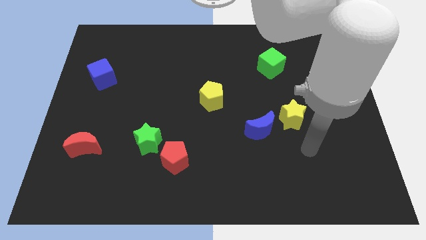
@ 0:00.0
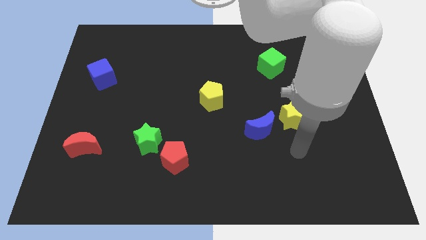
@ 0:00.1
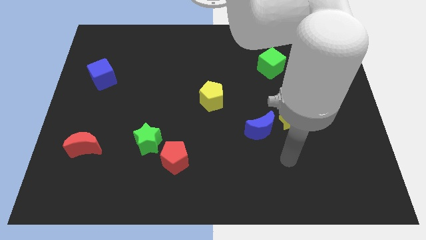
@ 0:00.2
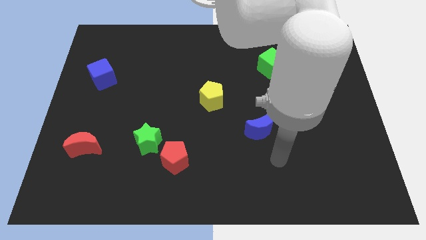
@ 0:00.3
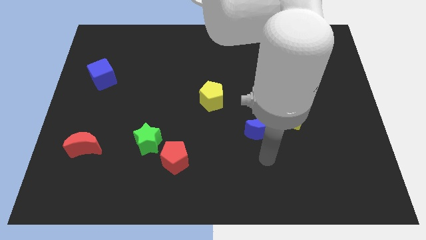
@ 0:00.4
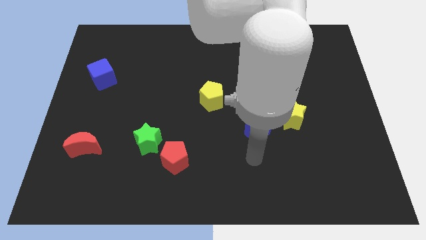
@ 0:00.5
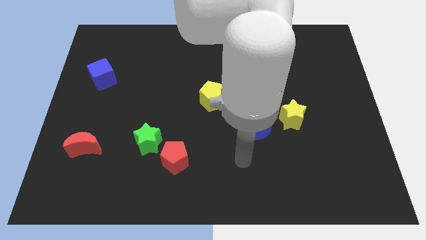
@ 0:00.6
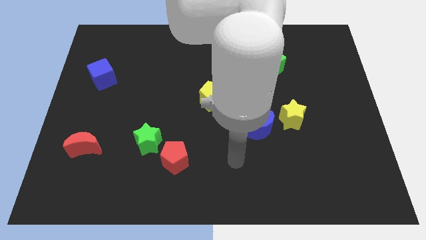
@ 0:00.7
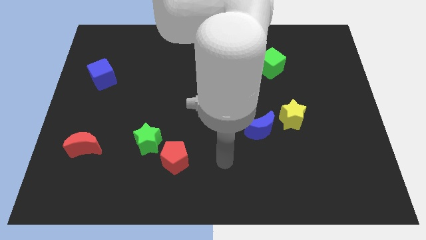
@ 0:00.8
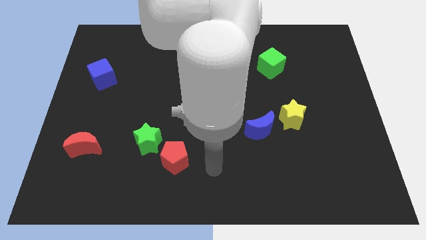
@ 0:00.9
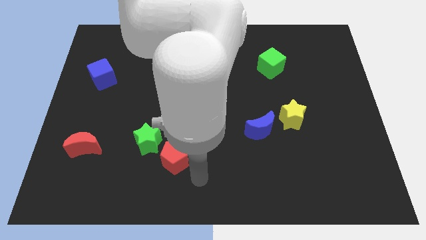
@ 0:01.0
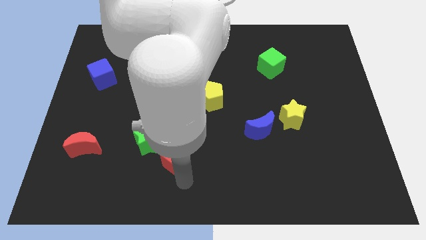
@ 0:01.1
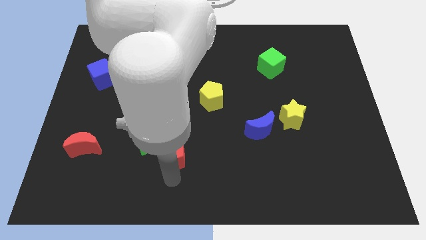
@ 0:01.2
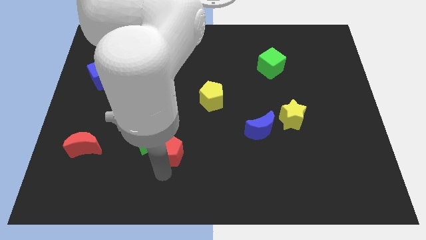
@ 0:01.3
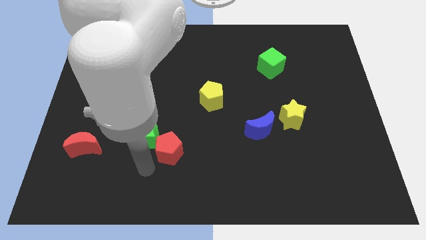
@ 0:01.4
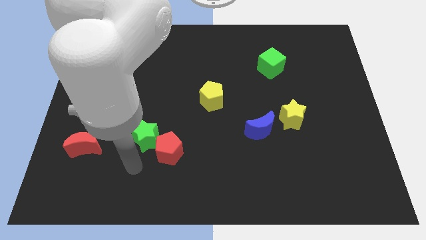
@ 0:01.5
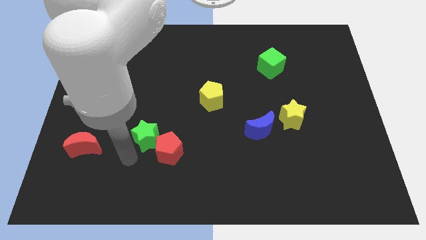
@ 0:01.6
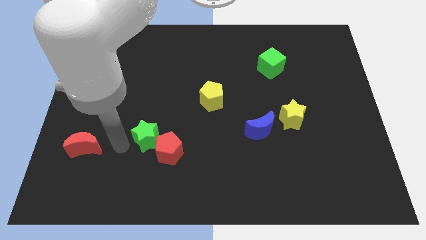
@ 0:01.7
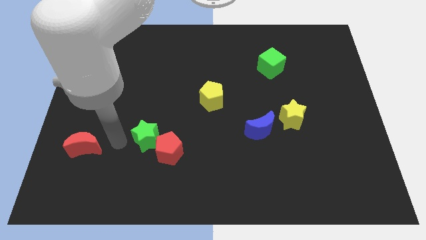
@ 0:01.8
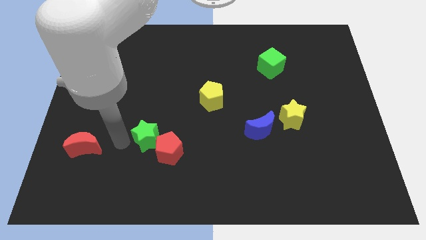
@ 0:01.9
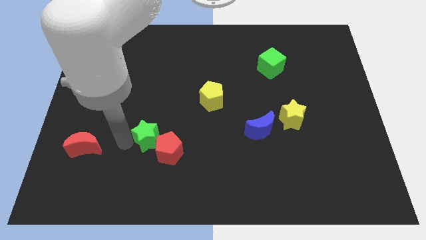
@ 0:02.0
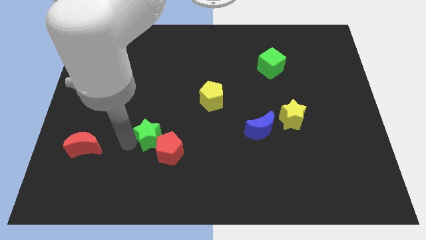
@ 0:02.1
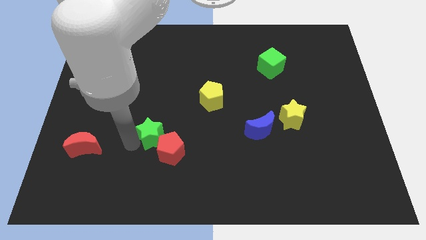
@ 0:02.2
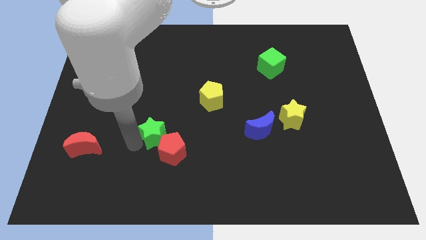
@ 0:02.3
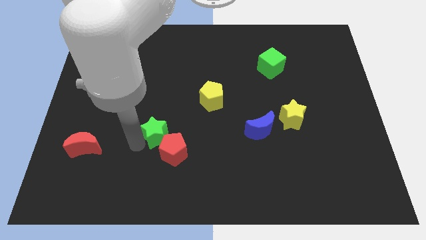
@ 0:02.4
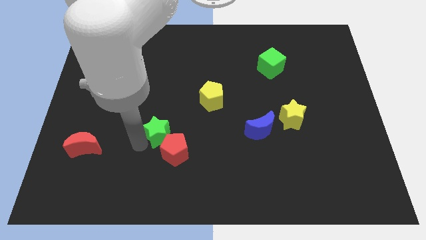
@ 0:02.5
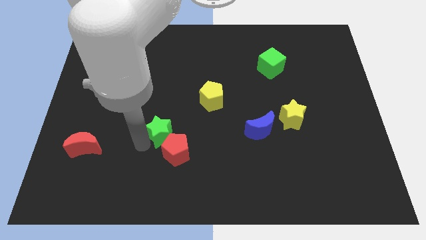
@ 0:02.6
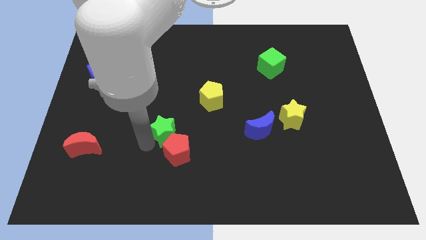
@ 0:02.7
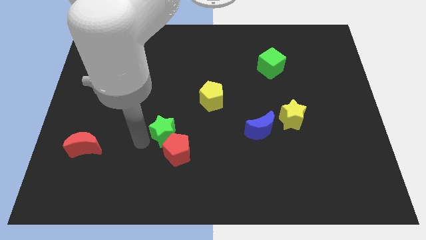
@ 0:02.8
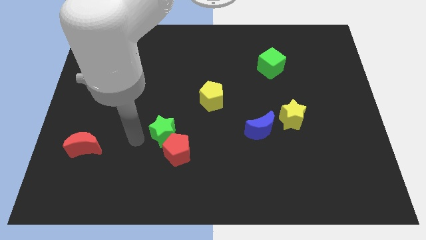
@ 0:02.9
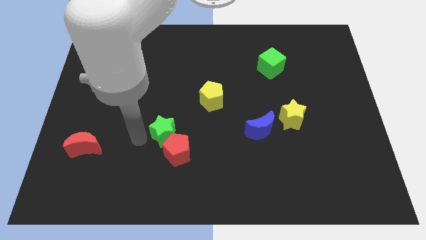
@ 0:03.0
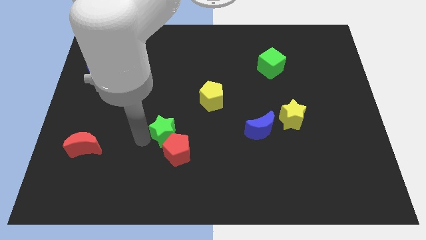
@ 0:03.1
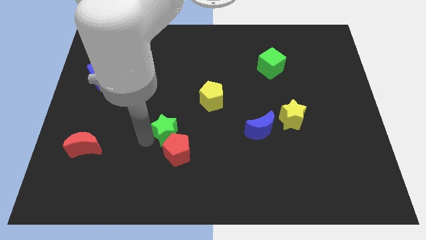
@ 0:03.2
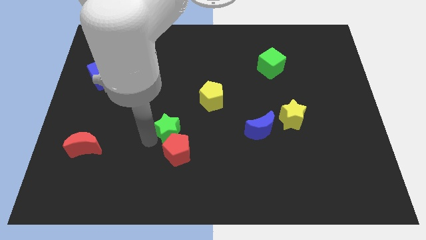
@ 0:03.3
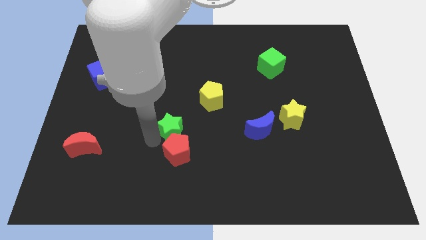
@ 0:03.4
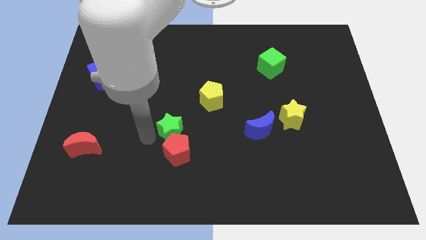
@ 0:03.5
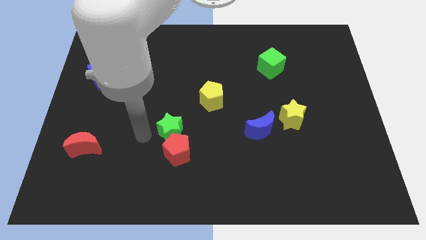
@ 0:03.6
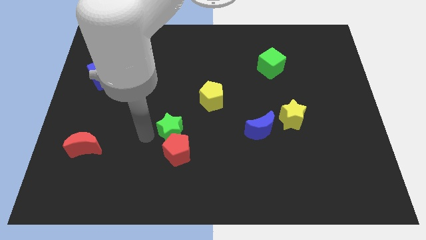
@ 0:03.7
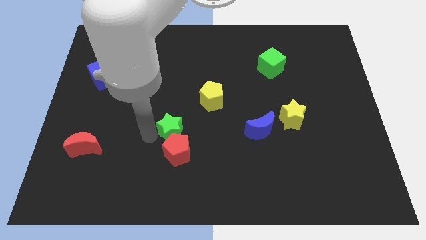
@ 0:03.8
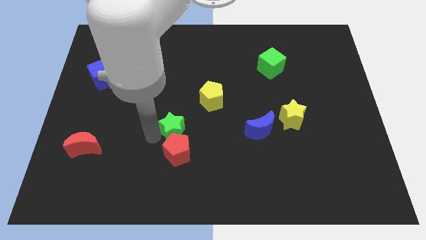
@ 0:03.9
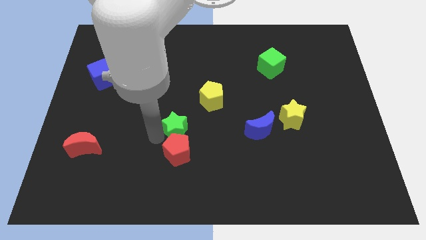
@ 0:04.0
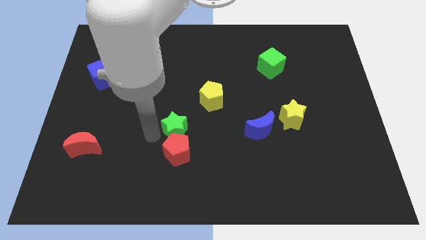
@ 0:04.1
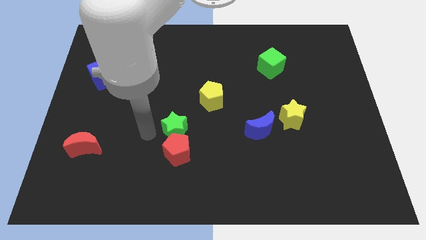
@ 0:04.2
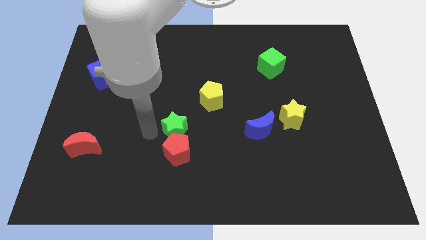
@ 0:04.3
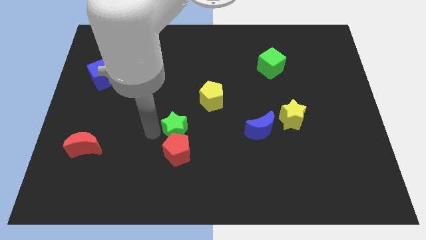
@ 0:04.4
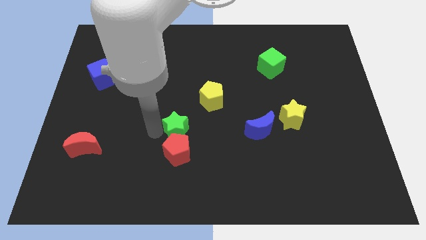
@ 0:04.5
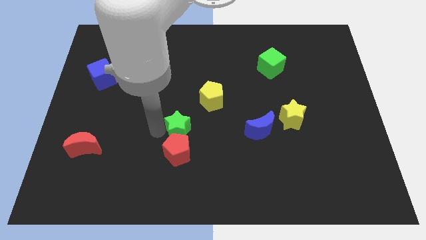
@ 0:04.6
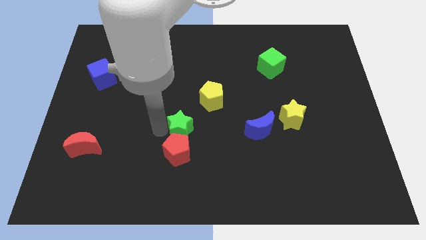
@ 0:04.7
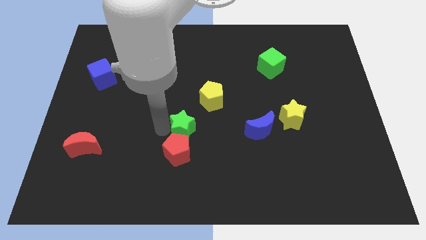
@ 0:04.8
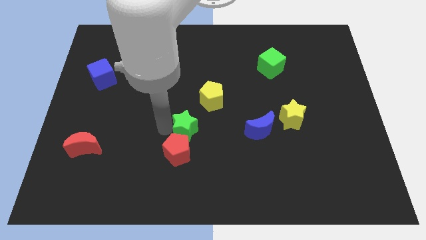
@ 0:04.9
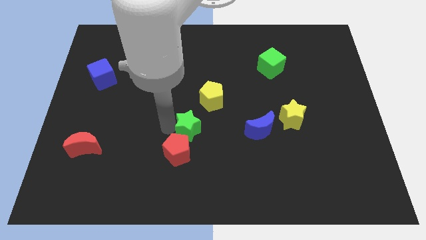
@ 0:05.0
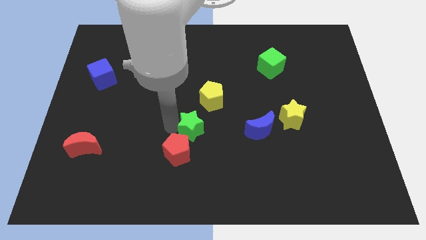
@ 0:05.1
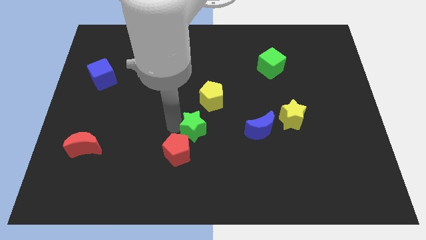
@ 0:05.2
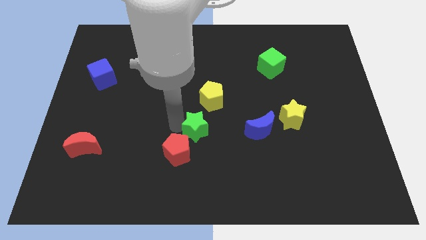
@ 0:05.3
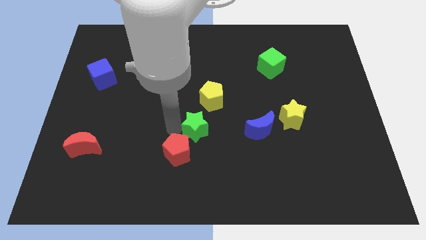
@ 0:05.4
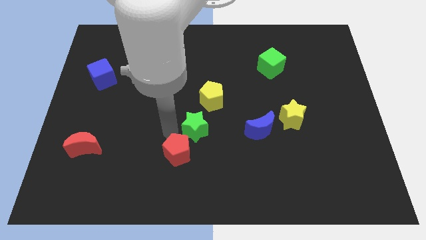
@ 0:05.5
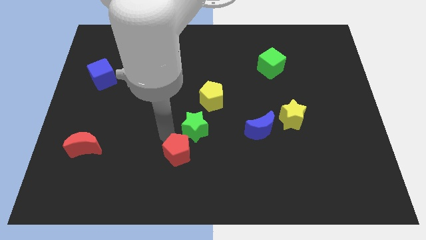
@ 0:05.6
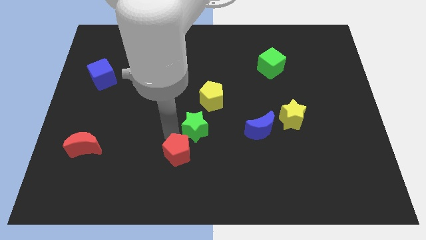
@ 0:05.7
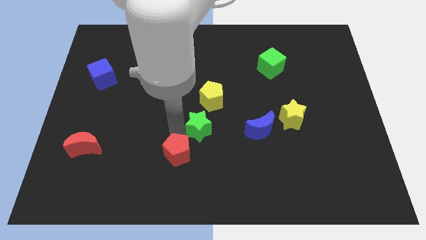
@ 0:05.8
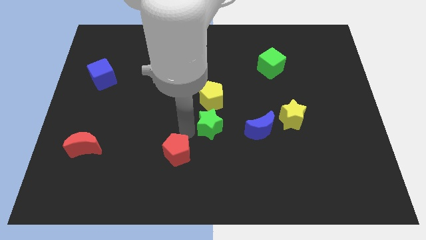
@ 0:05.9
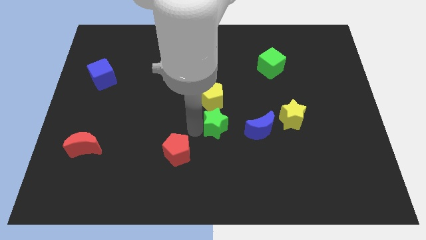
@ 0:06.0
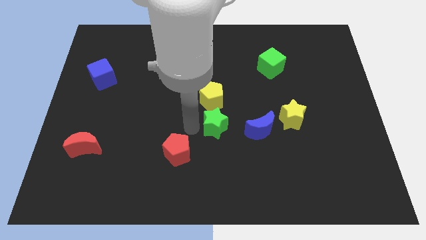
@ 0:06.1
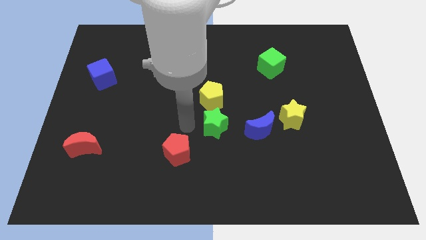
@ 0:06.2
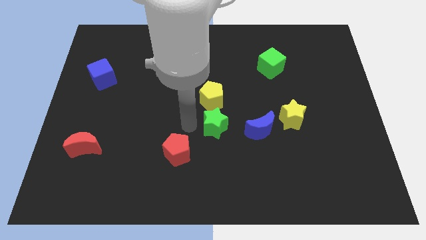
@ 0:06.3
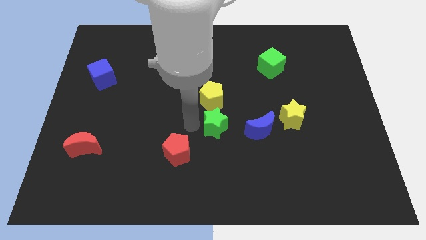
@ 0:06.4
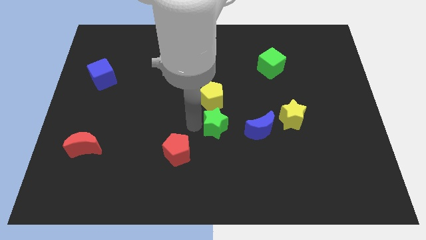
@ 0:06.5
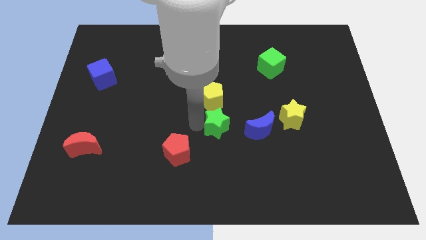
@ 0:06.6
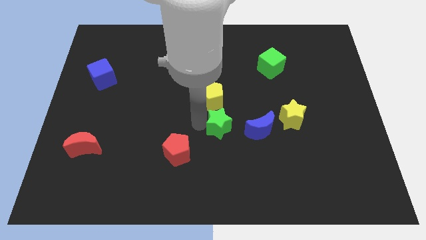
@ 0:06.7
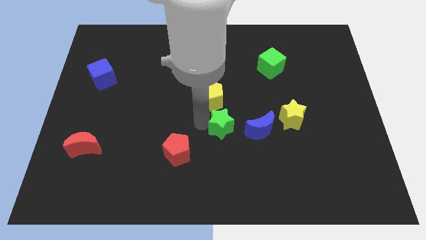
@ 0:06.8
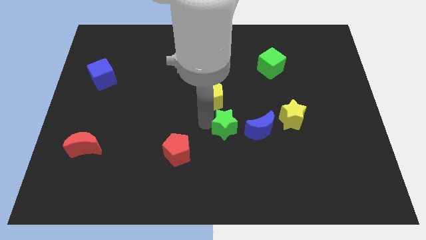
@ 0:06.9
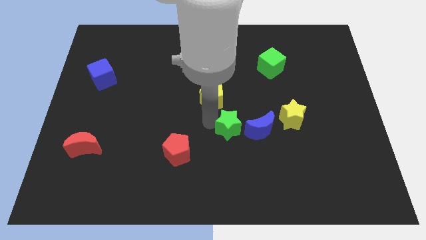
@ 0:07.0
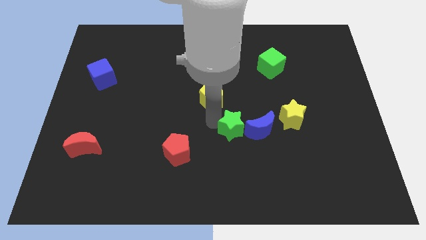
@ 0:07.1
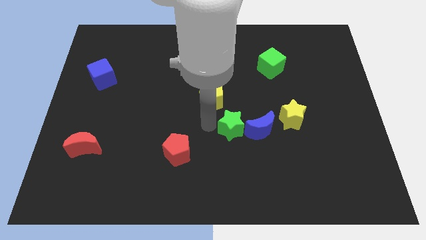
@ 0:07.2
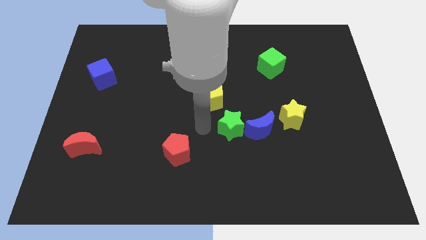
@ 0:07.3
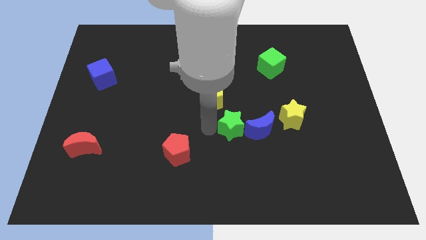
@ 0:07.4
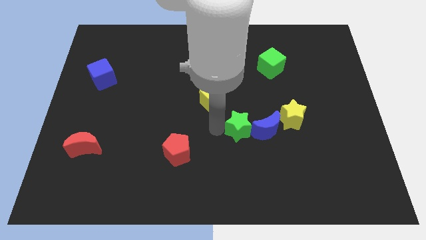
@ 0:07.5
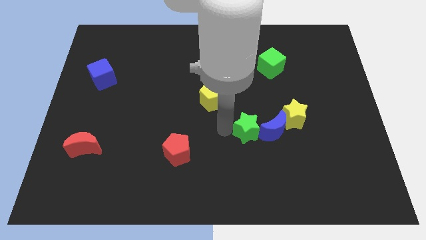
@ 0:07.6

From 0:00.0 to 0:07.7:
put the green star towards the blue moon
